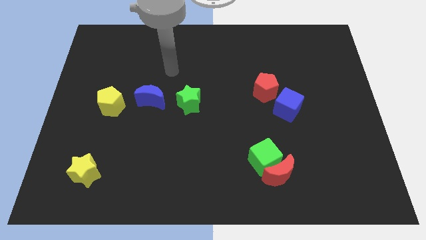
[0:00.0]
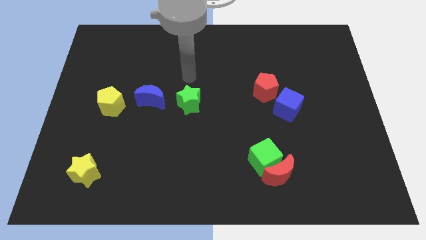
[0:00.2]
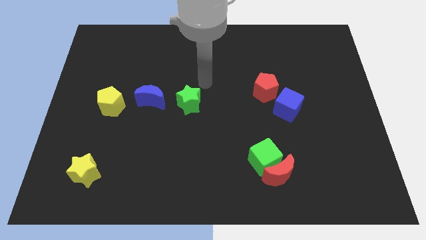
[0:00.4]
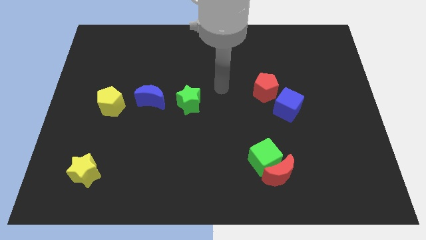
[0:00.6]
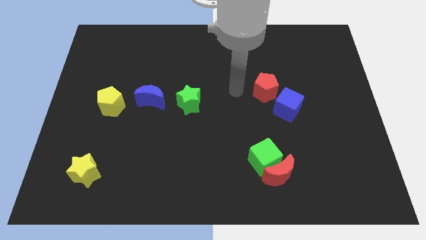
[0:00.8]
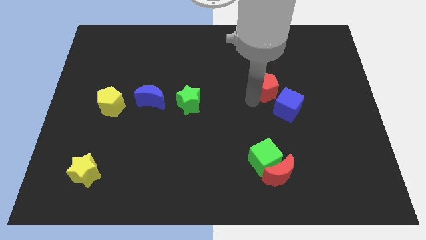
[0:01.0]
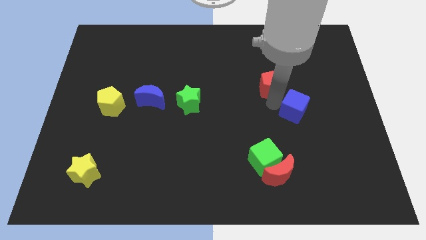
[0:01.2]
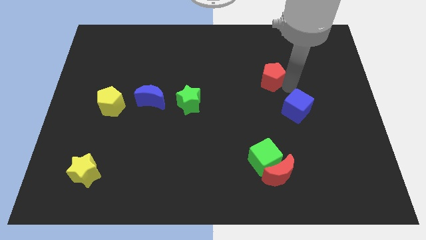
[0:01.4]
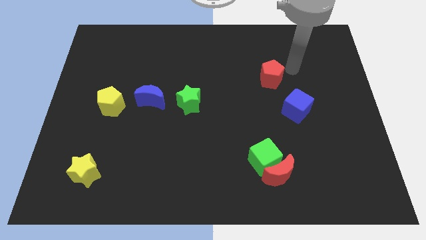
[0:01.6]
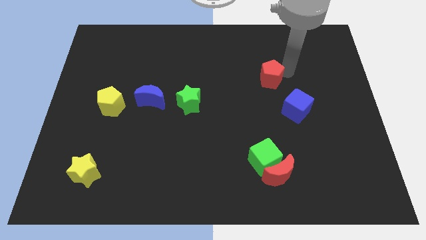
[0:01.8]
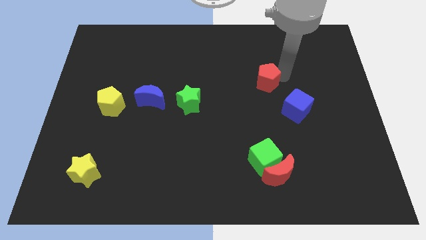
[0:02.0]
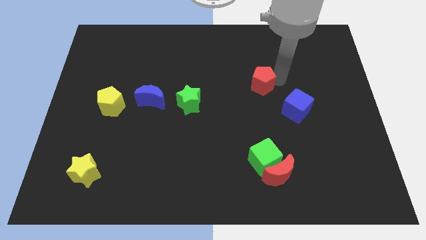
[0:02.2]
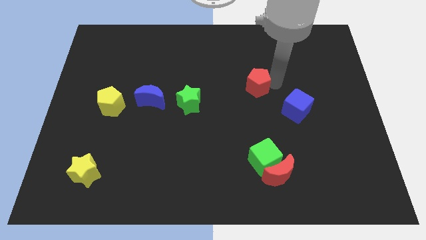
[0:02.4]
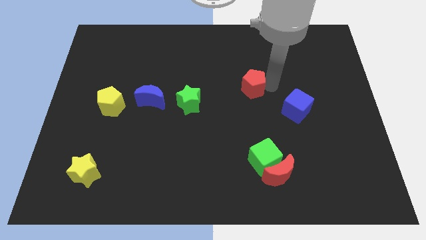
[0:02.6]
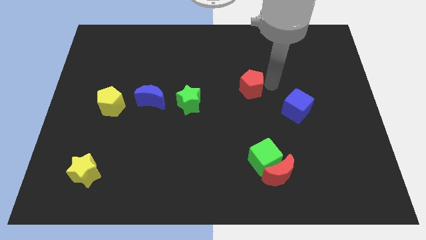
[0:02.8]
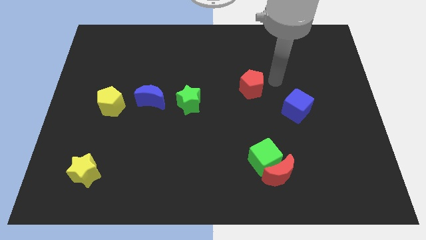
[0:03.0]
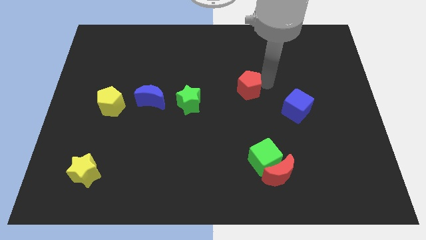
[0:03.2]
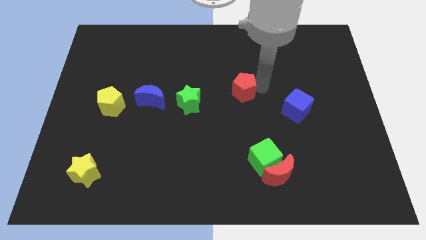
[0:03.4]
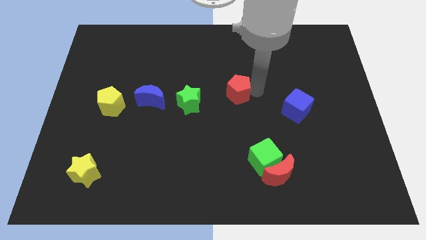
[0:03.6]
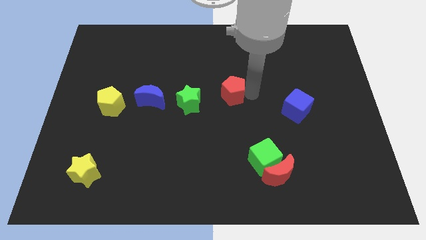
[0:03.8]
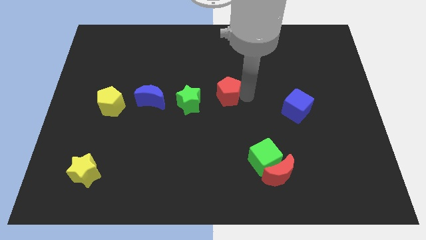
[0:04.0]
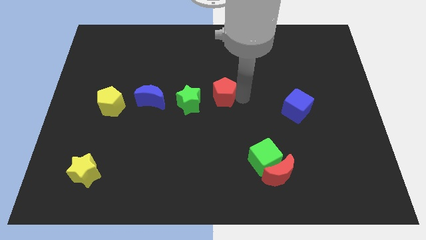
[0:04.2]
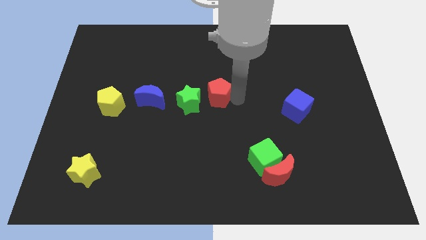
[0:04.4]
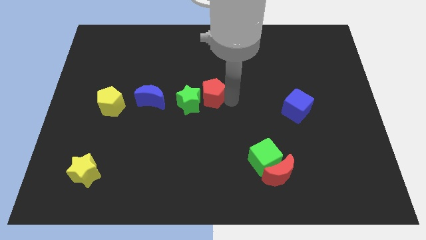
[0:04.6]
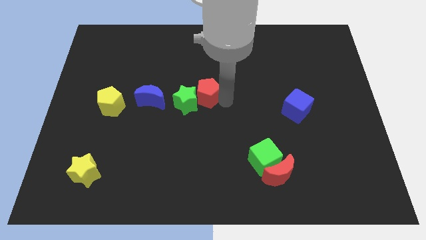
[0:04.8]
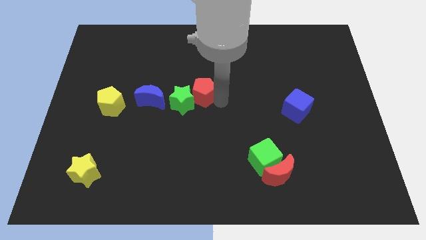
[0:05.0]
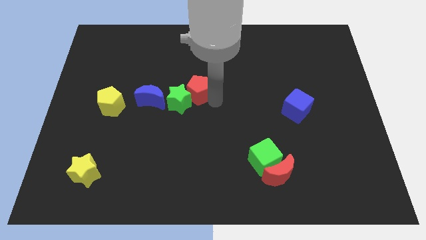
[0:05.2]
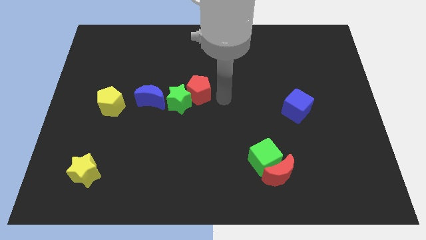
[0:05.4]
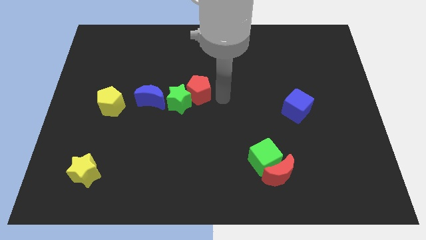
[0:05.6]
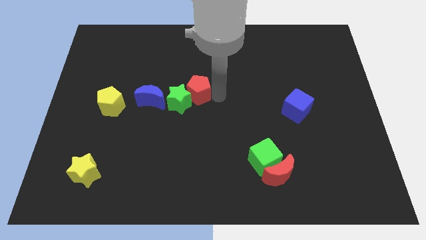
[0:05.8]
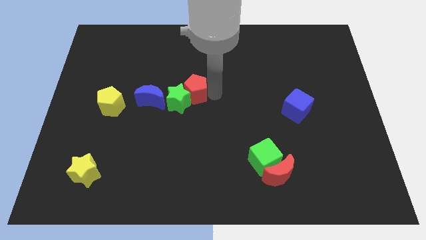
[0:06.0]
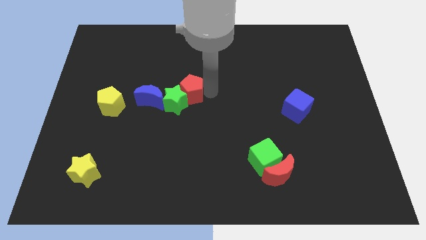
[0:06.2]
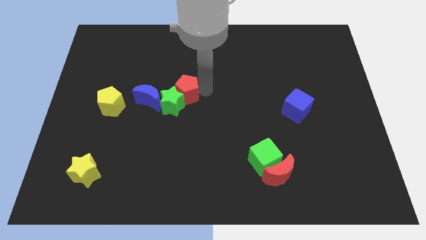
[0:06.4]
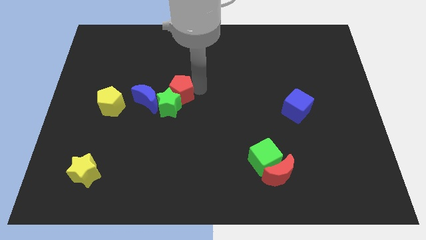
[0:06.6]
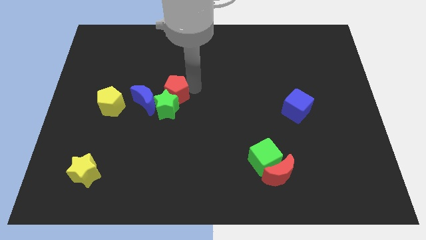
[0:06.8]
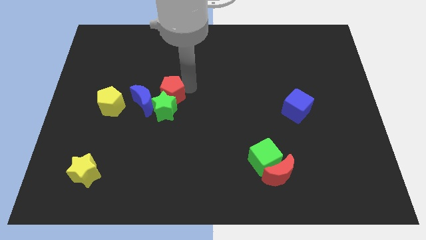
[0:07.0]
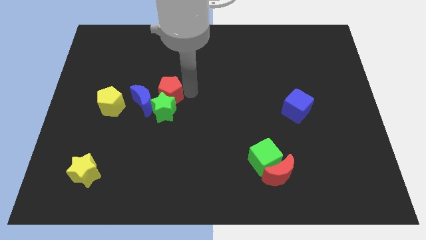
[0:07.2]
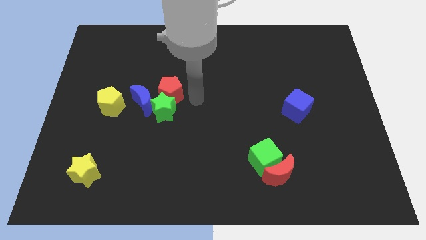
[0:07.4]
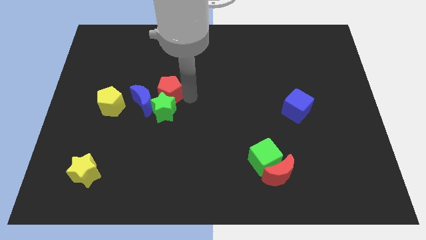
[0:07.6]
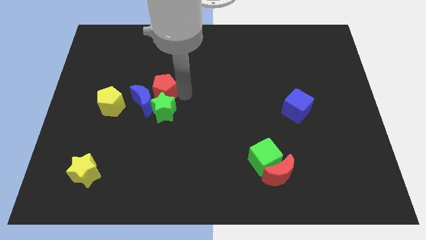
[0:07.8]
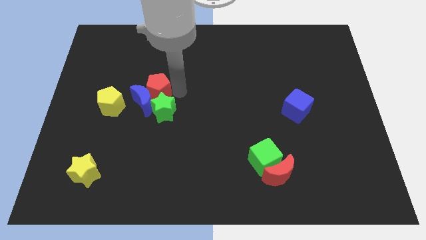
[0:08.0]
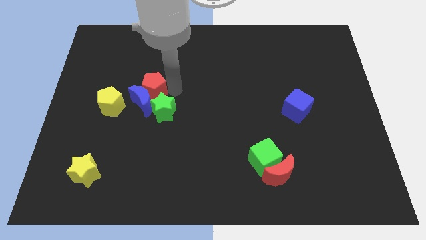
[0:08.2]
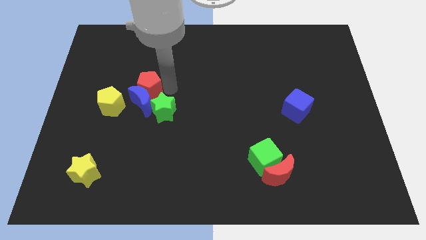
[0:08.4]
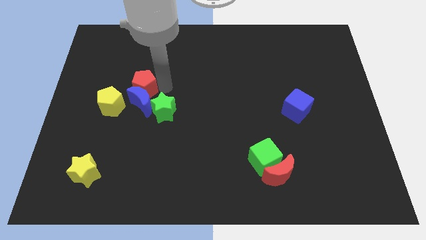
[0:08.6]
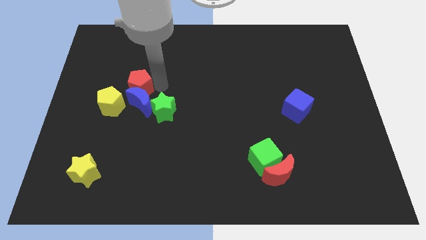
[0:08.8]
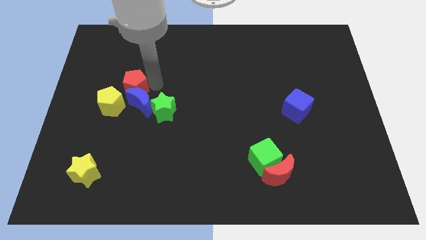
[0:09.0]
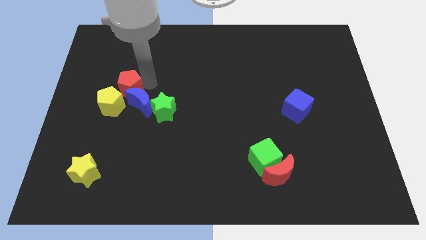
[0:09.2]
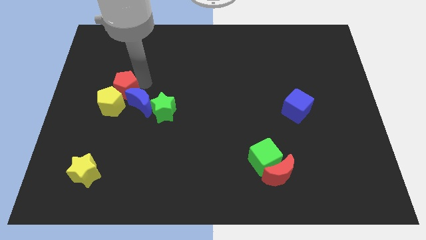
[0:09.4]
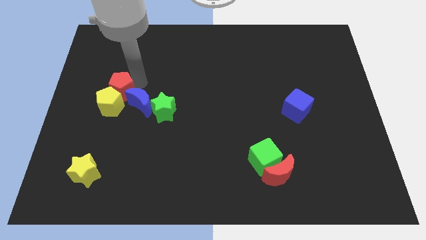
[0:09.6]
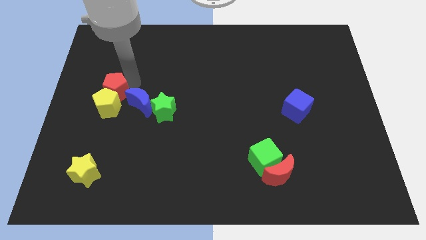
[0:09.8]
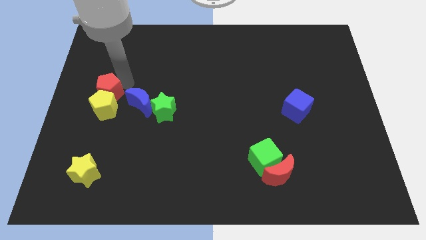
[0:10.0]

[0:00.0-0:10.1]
push the red pentagon to the left side of the board

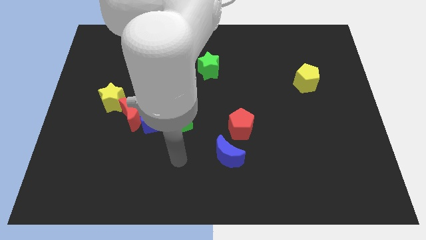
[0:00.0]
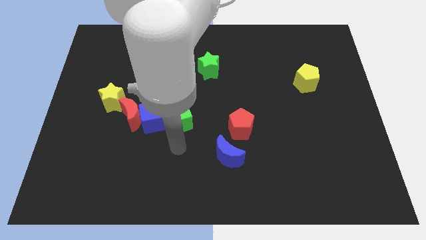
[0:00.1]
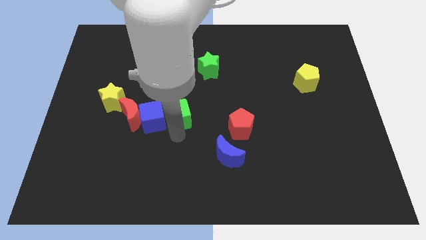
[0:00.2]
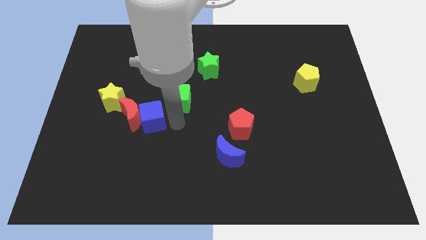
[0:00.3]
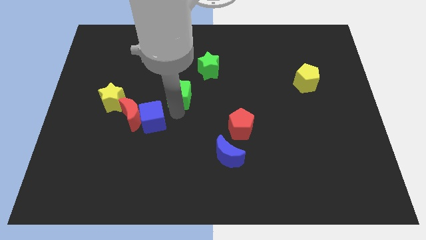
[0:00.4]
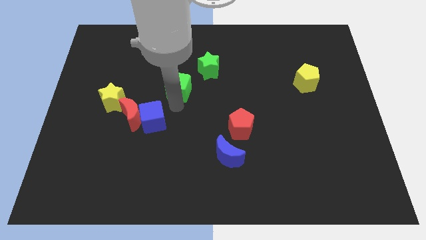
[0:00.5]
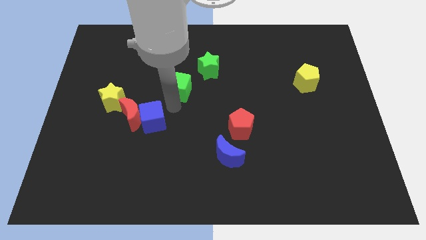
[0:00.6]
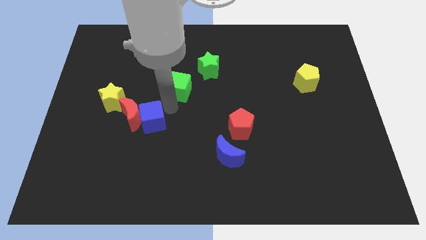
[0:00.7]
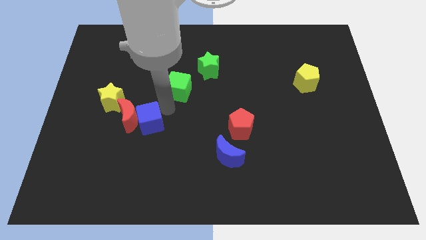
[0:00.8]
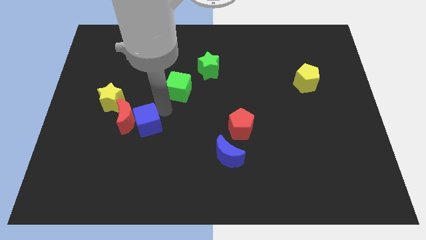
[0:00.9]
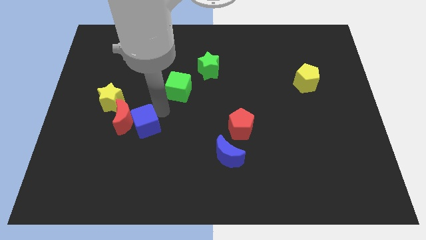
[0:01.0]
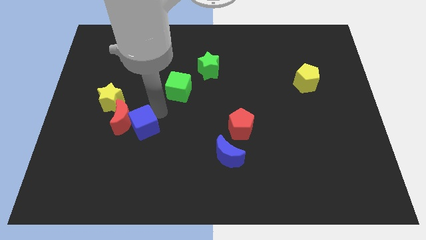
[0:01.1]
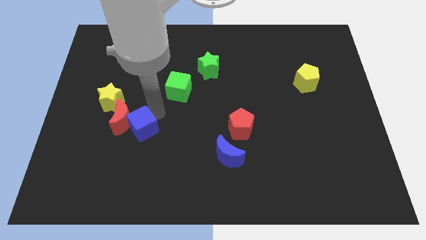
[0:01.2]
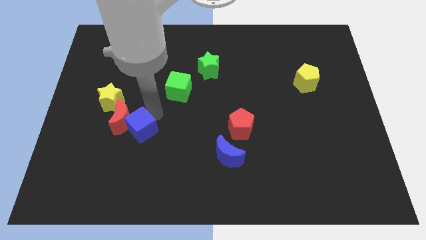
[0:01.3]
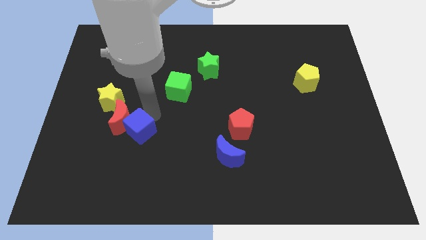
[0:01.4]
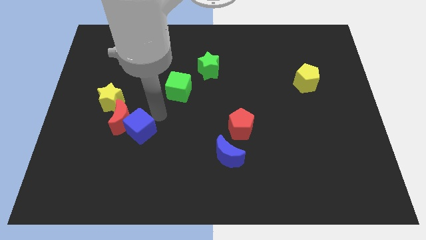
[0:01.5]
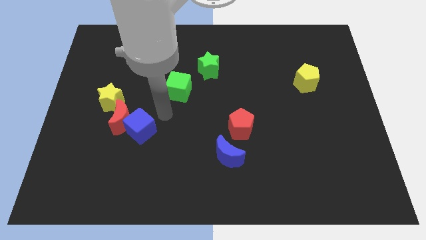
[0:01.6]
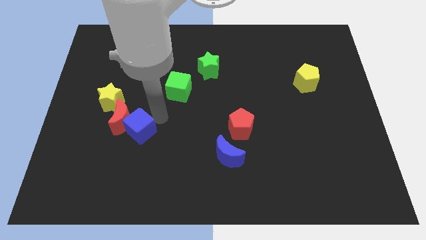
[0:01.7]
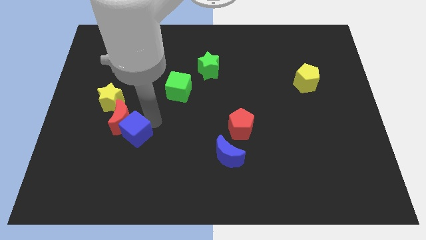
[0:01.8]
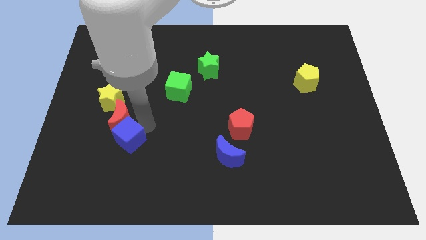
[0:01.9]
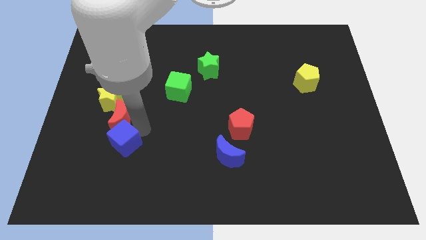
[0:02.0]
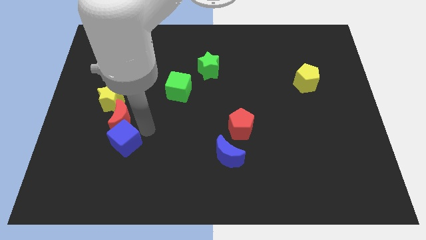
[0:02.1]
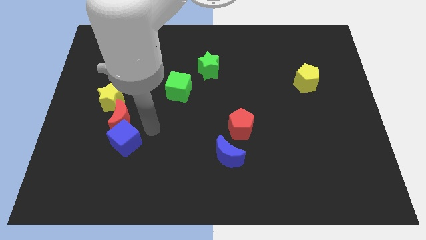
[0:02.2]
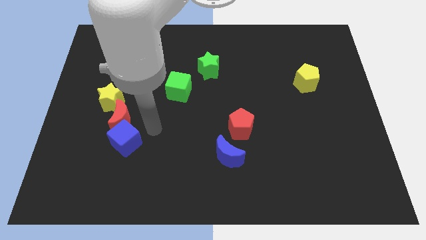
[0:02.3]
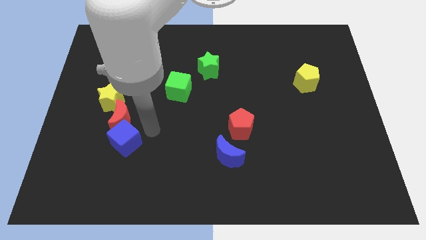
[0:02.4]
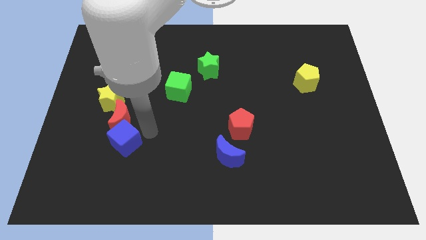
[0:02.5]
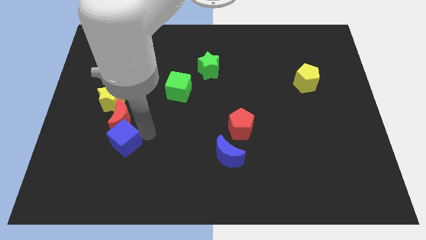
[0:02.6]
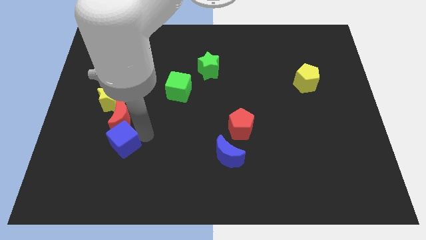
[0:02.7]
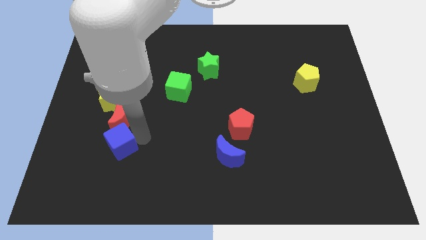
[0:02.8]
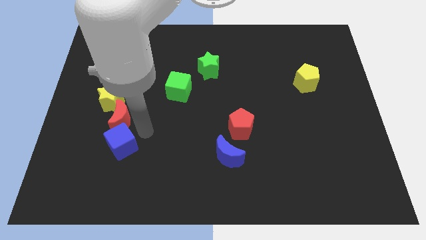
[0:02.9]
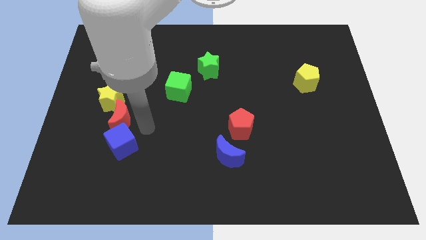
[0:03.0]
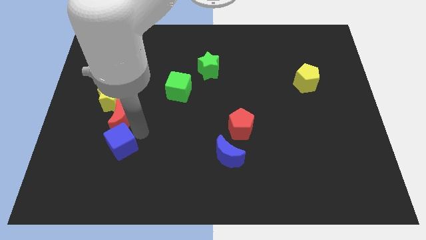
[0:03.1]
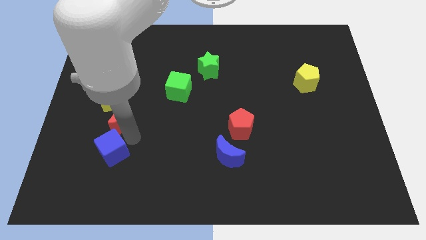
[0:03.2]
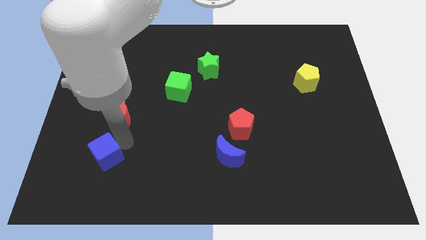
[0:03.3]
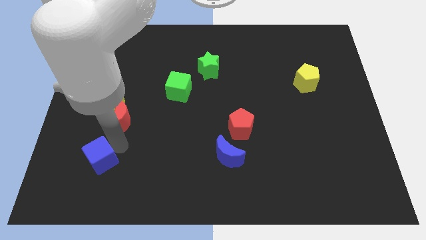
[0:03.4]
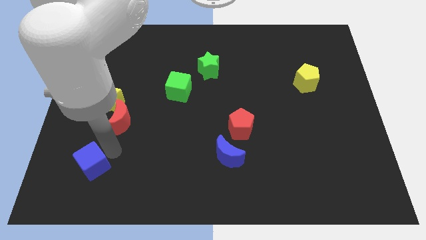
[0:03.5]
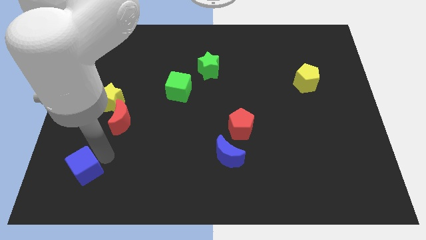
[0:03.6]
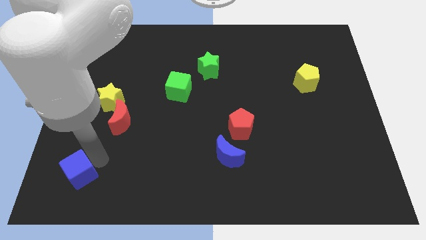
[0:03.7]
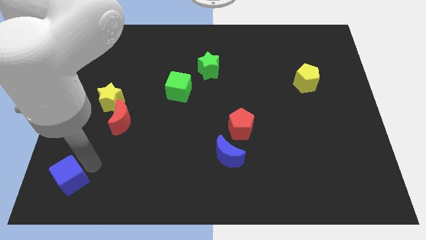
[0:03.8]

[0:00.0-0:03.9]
put the blue cube to the lower left corner
